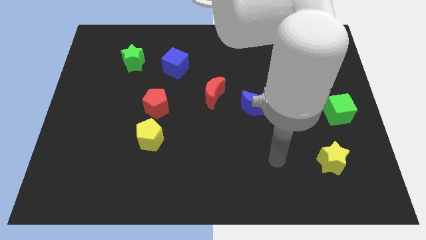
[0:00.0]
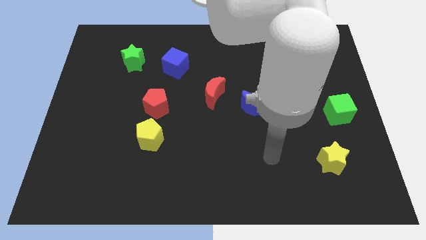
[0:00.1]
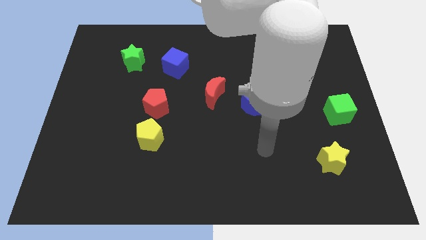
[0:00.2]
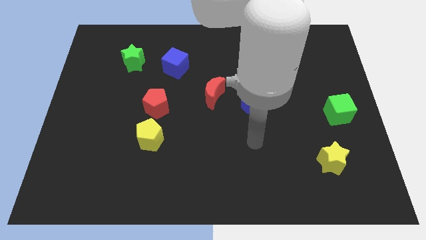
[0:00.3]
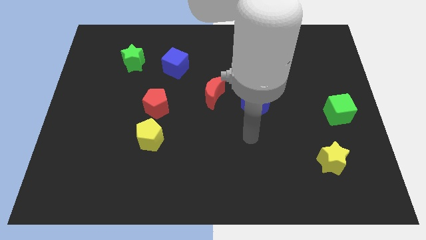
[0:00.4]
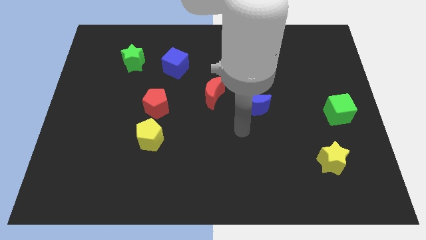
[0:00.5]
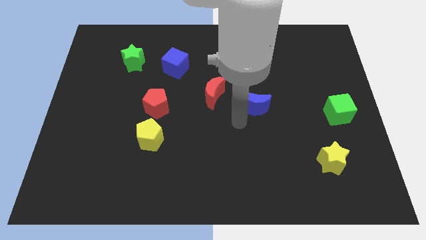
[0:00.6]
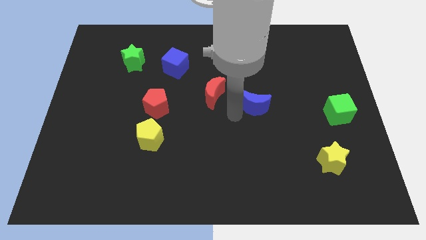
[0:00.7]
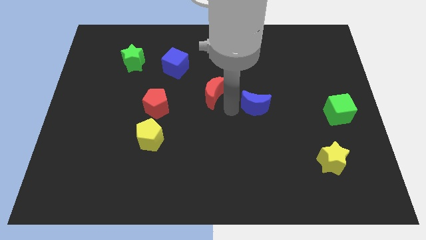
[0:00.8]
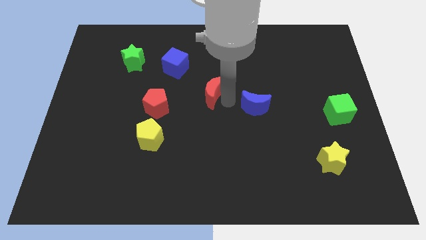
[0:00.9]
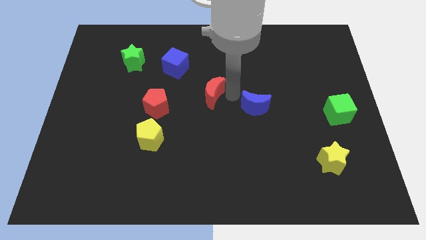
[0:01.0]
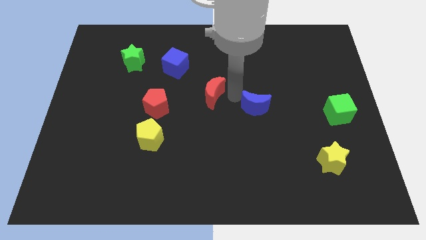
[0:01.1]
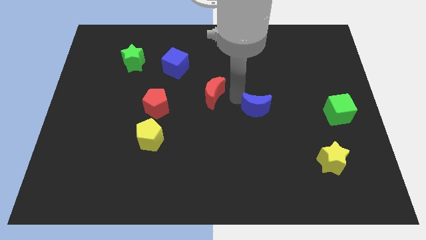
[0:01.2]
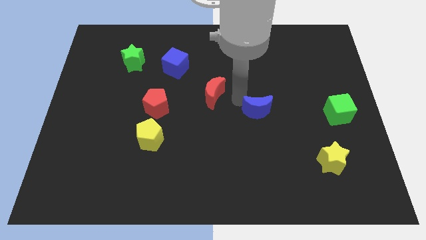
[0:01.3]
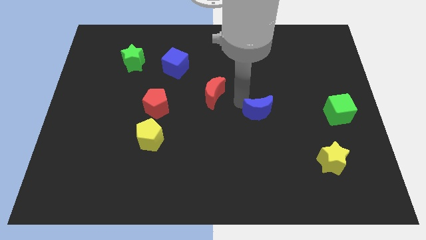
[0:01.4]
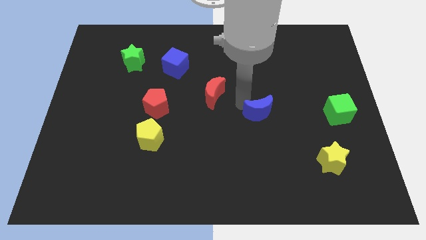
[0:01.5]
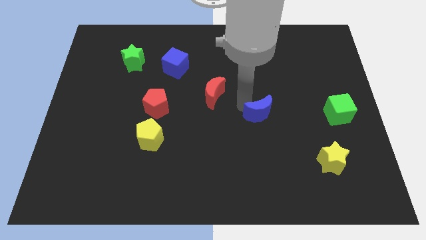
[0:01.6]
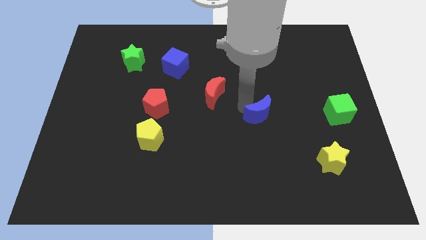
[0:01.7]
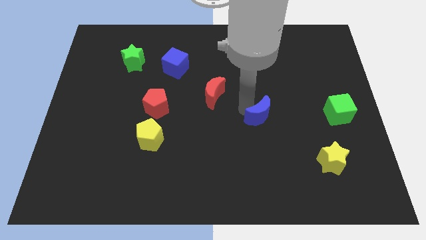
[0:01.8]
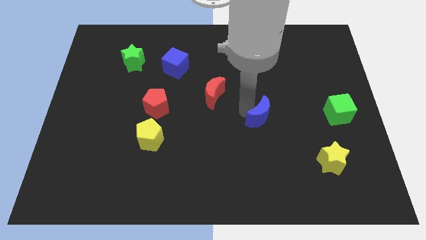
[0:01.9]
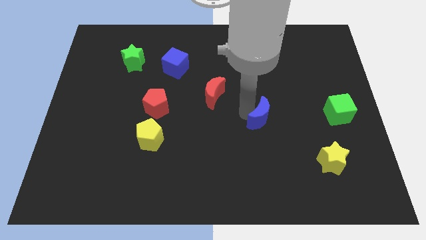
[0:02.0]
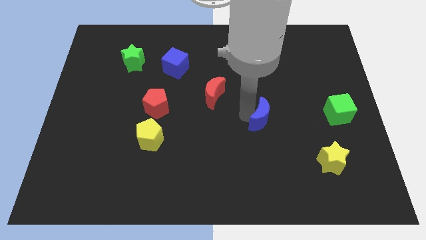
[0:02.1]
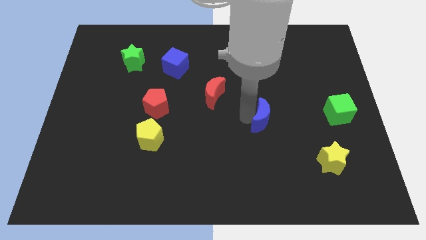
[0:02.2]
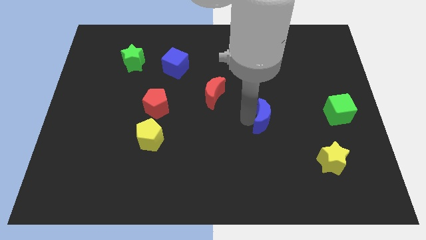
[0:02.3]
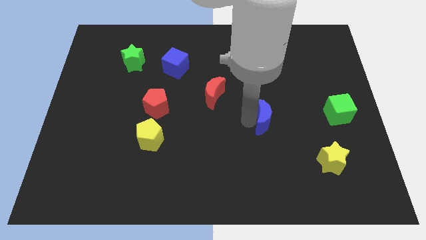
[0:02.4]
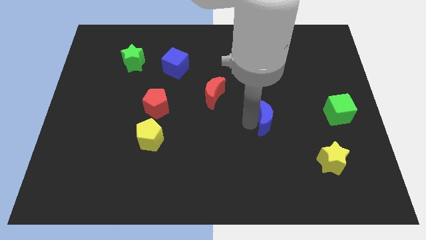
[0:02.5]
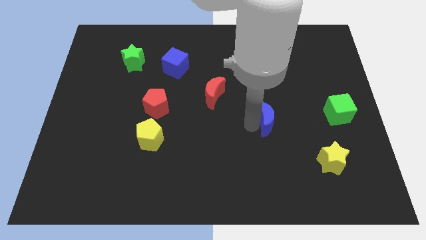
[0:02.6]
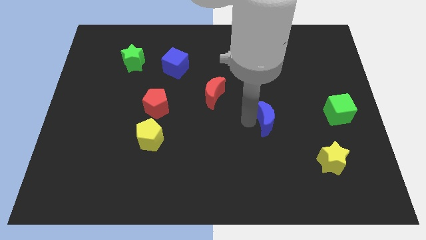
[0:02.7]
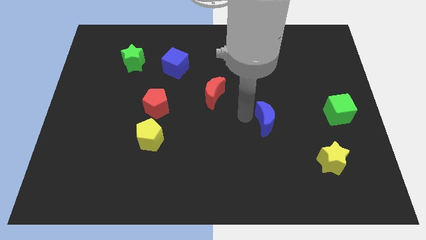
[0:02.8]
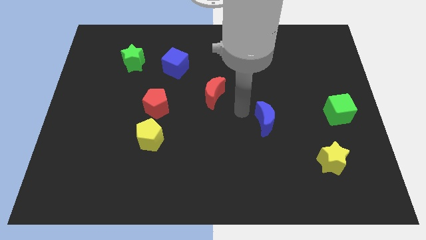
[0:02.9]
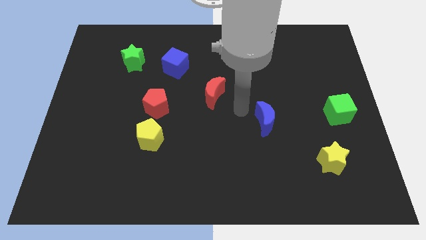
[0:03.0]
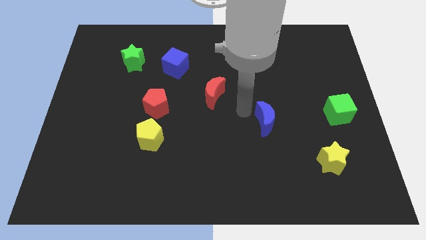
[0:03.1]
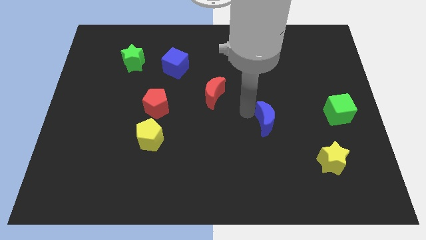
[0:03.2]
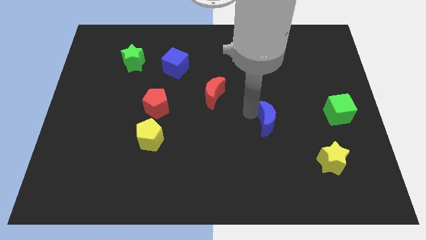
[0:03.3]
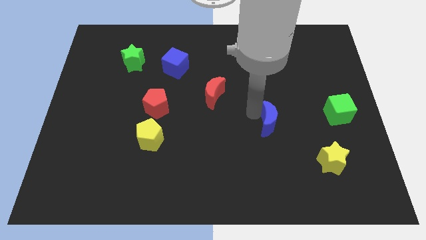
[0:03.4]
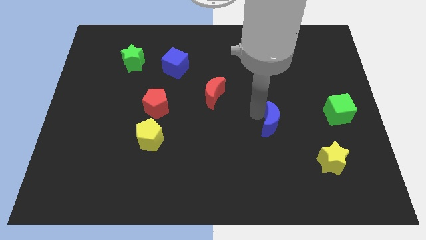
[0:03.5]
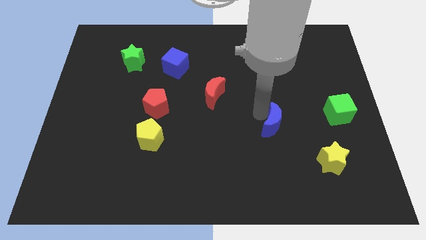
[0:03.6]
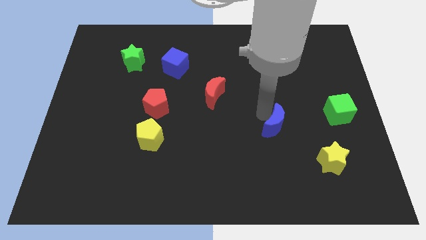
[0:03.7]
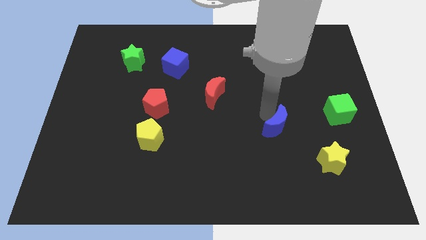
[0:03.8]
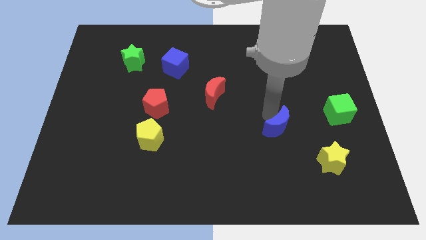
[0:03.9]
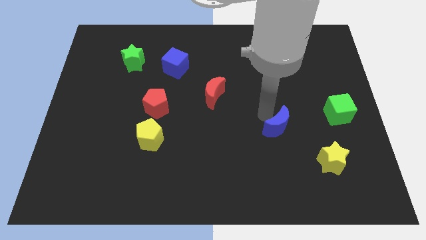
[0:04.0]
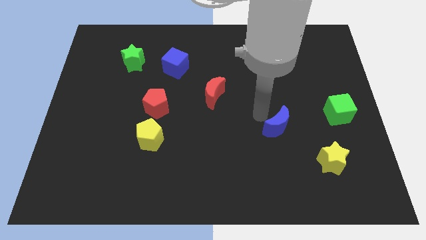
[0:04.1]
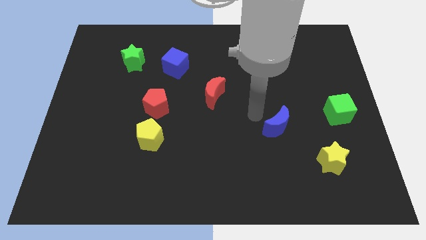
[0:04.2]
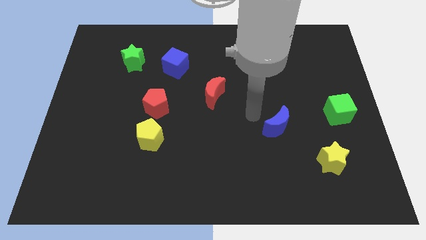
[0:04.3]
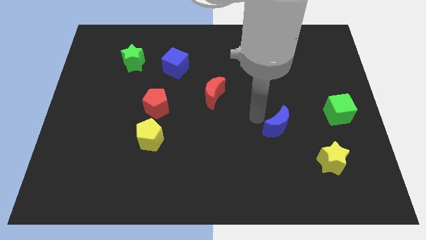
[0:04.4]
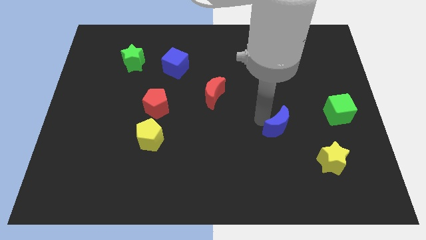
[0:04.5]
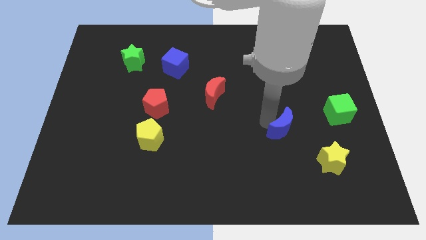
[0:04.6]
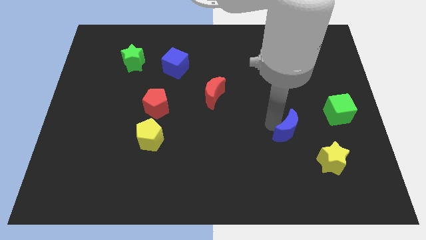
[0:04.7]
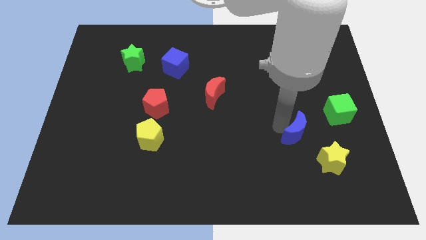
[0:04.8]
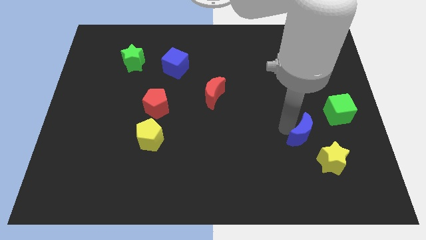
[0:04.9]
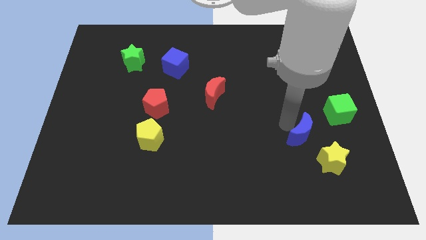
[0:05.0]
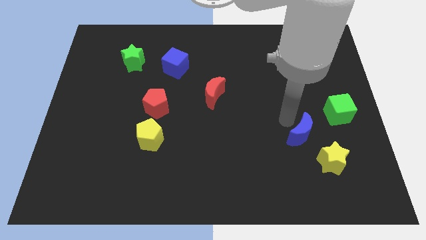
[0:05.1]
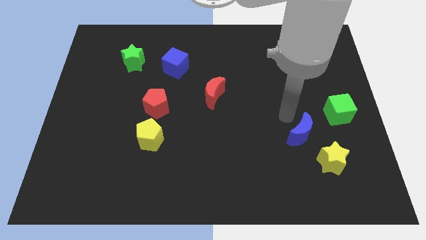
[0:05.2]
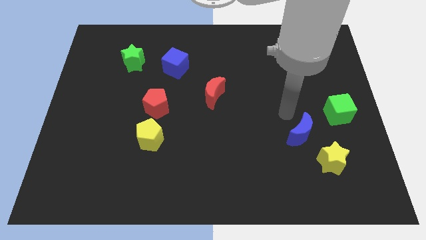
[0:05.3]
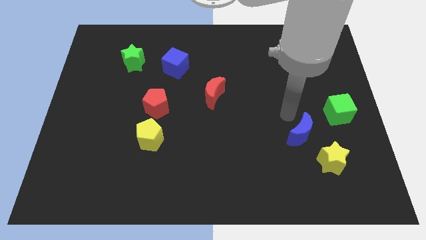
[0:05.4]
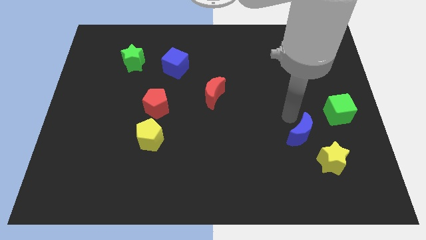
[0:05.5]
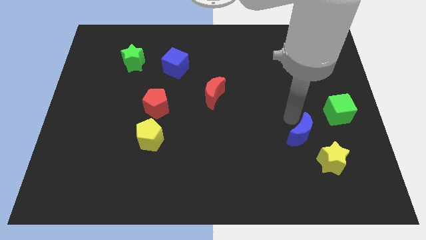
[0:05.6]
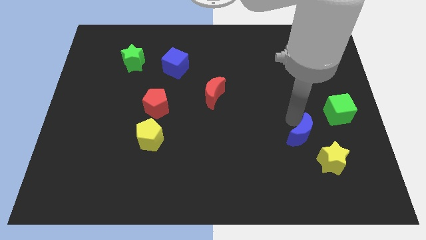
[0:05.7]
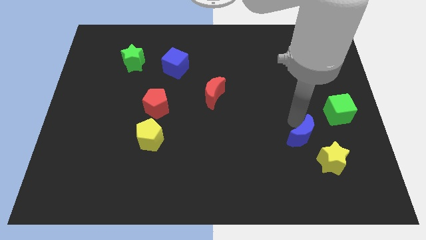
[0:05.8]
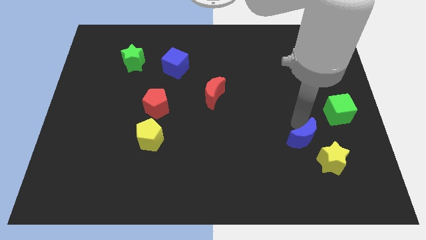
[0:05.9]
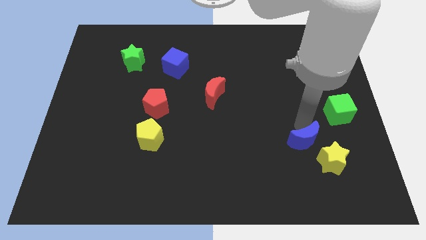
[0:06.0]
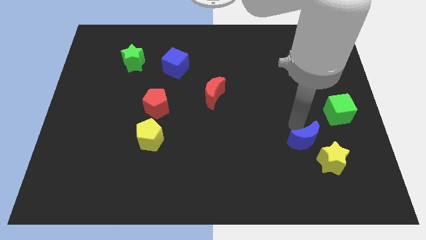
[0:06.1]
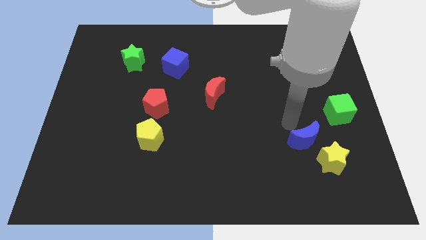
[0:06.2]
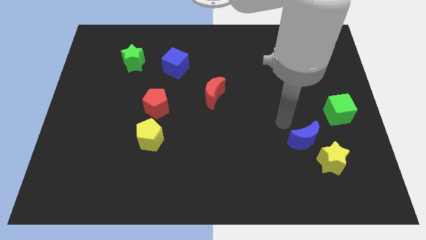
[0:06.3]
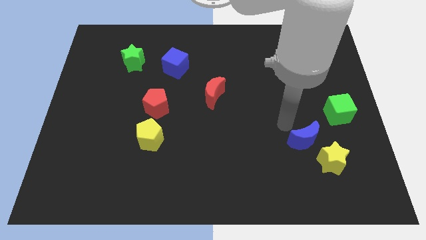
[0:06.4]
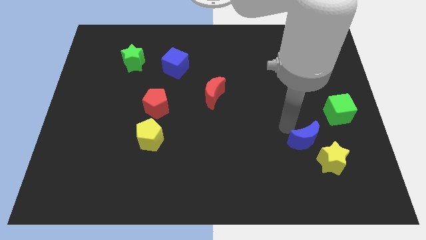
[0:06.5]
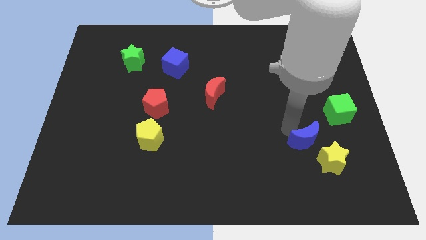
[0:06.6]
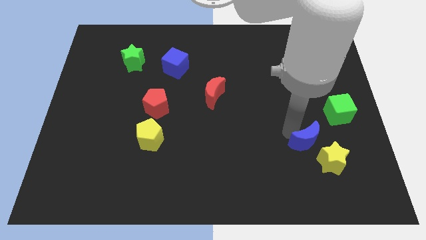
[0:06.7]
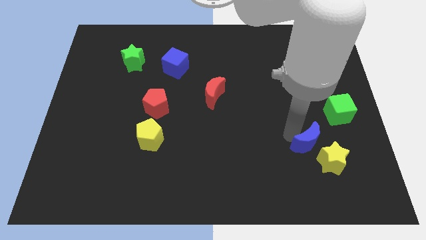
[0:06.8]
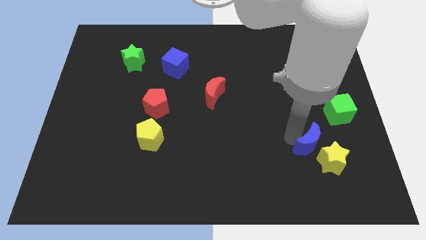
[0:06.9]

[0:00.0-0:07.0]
push the blue moon to the yellow star
